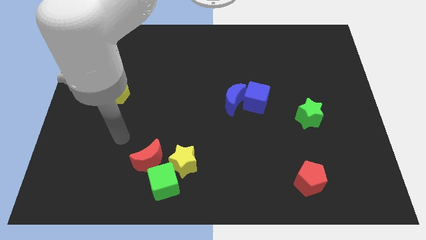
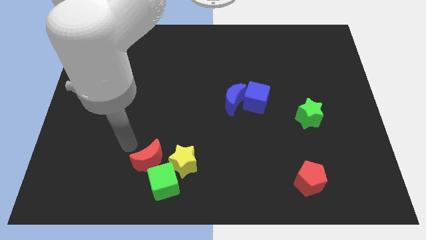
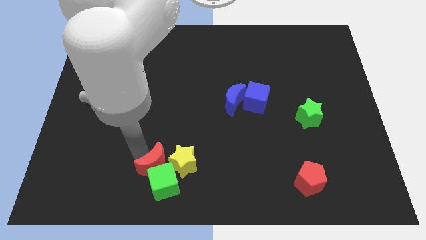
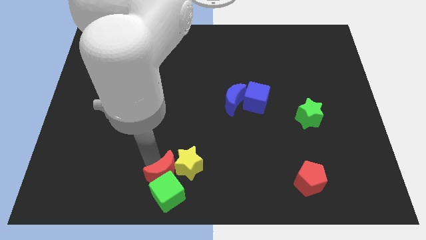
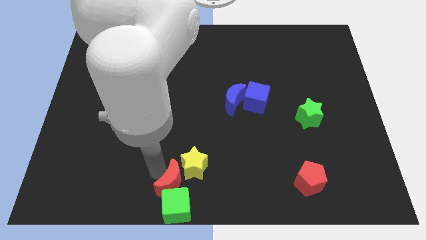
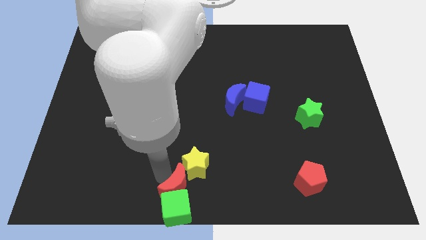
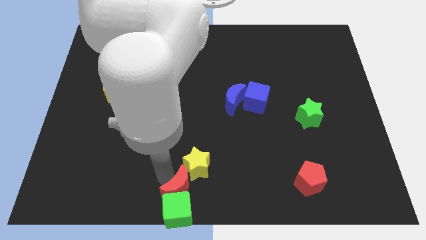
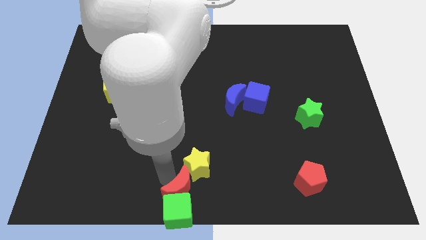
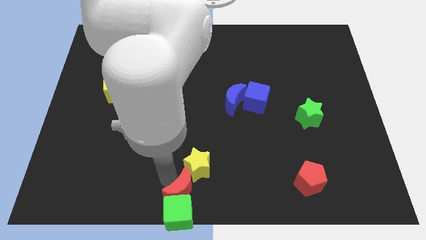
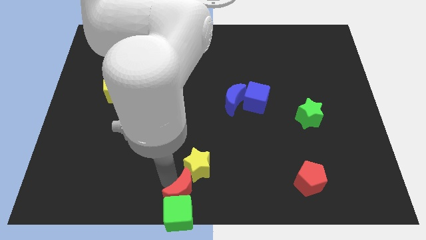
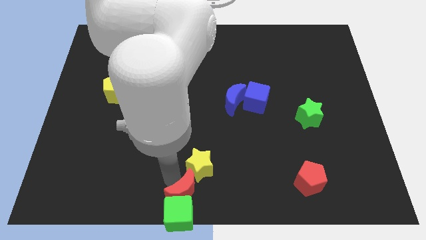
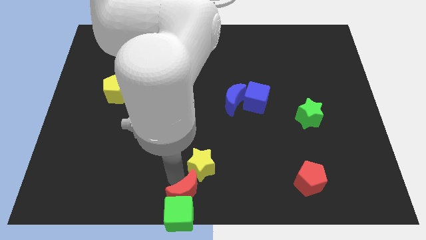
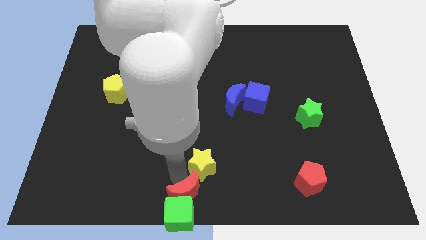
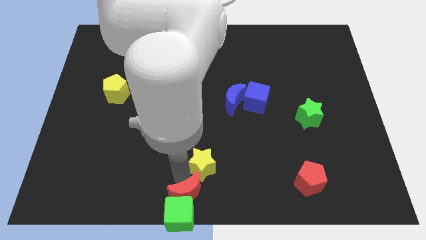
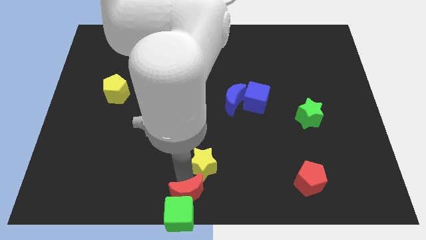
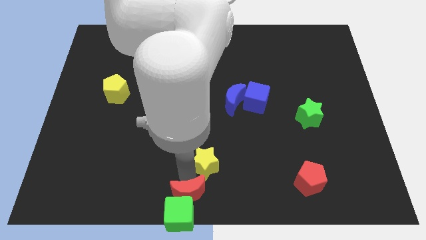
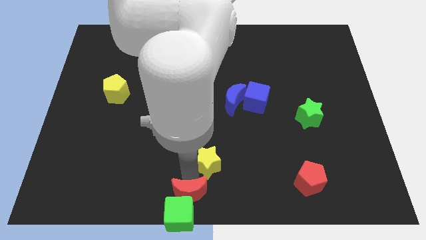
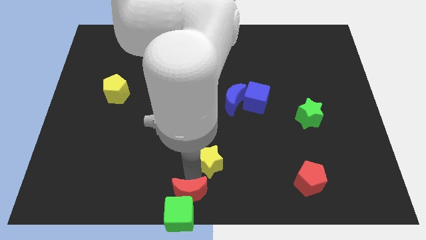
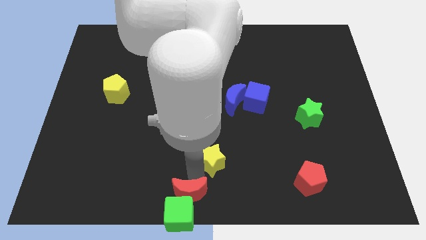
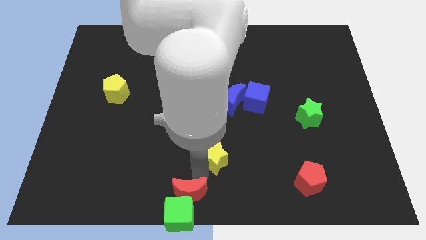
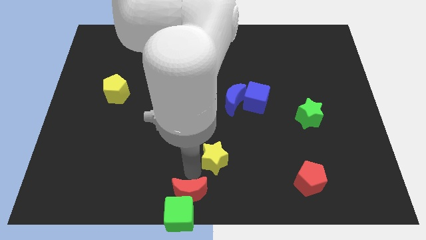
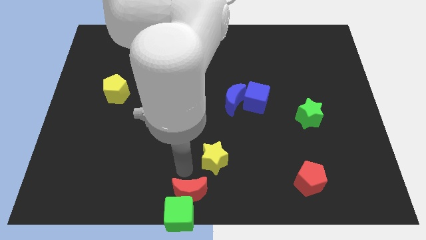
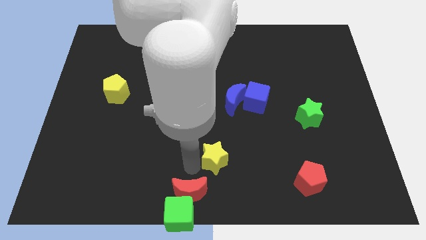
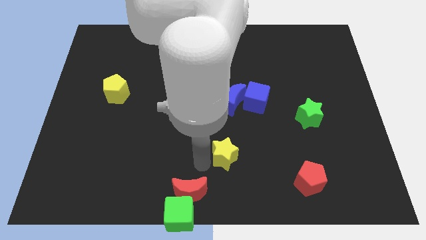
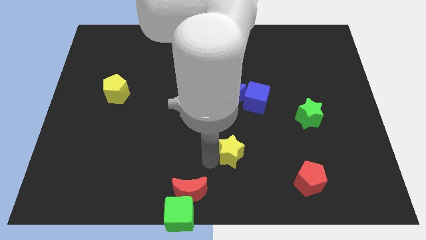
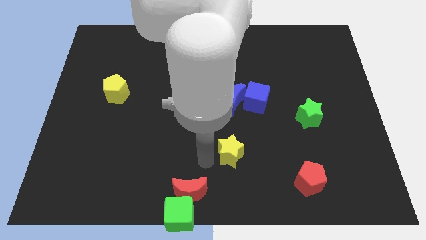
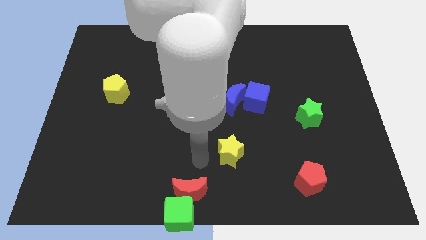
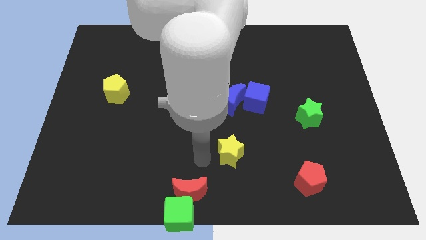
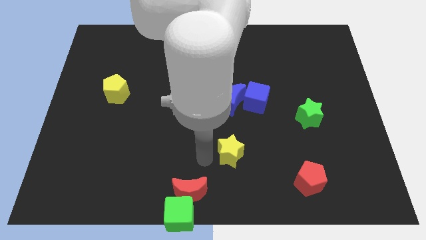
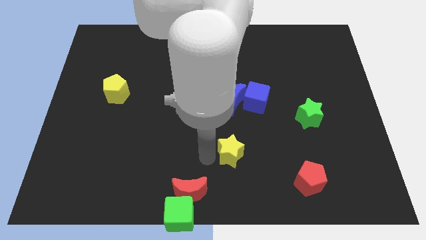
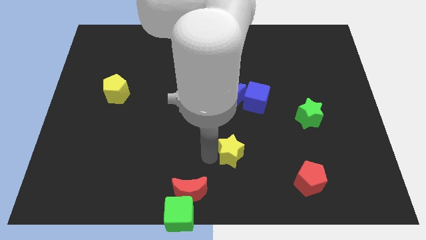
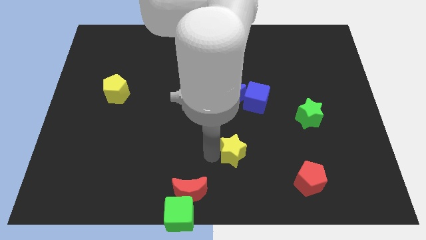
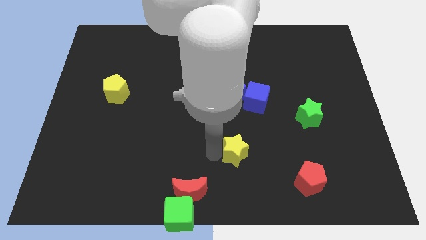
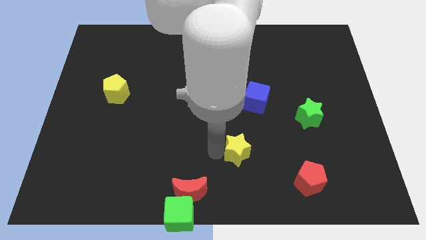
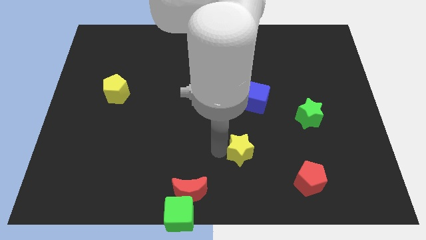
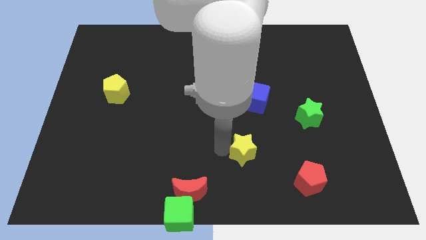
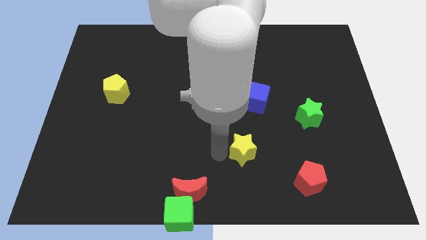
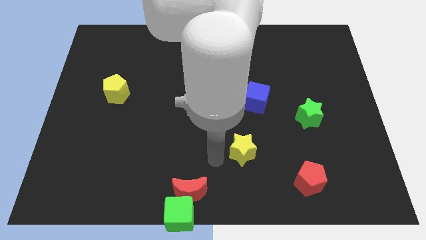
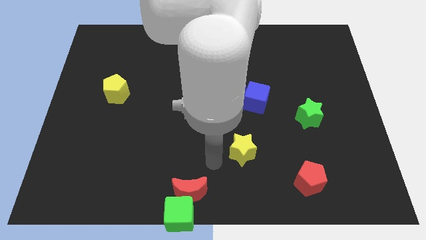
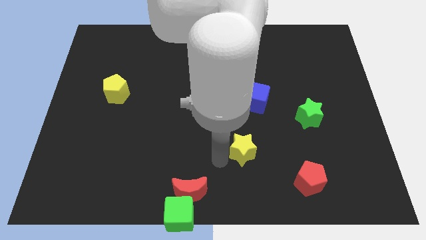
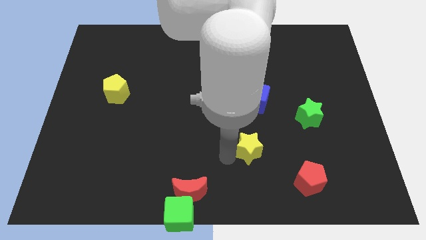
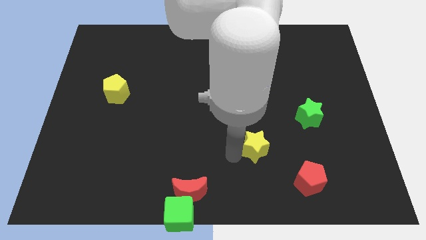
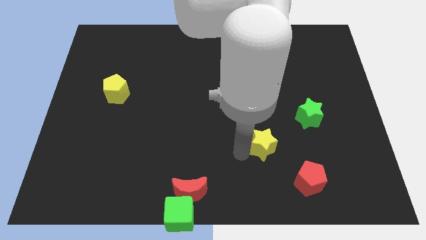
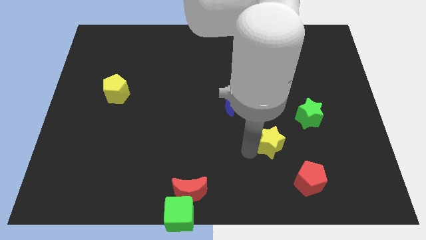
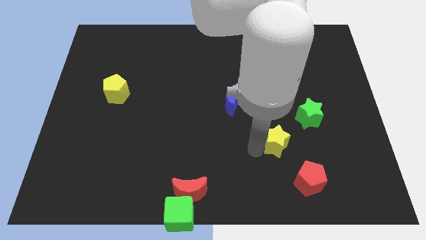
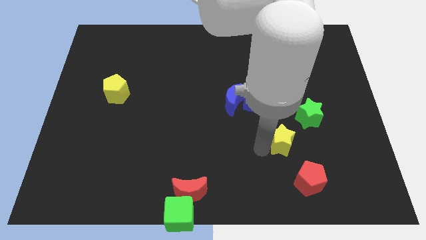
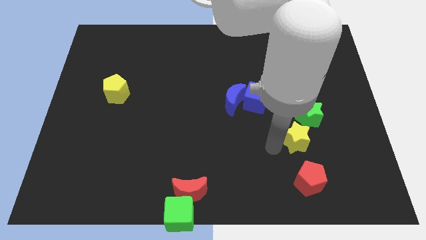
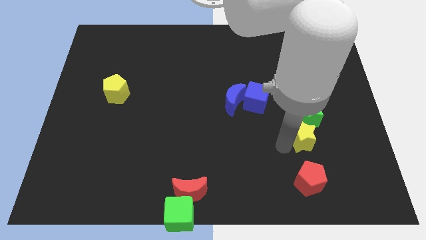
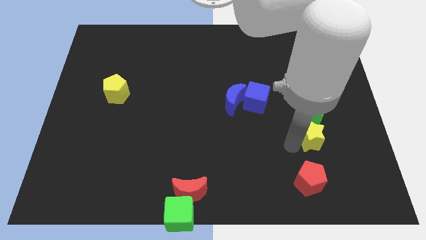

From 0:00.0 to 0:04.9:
push the yellow star towards the green star

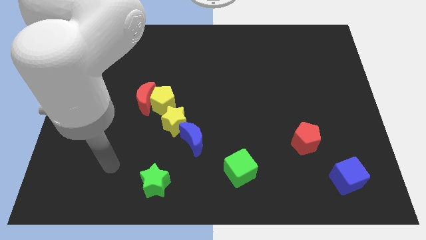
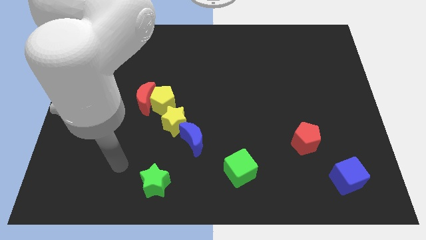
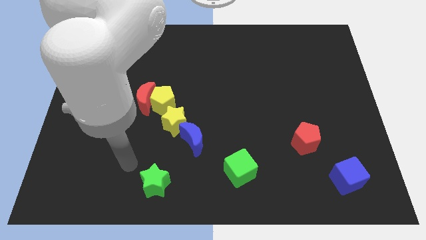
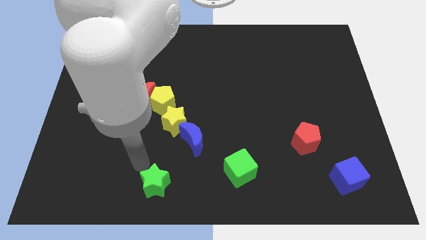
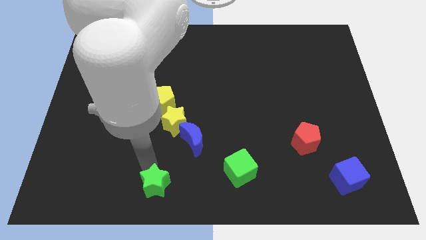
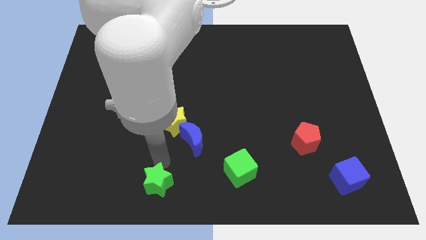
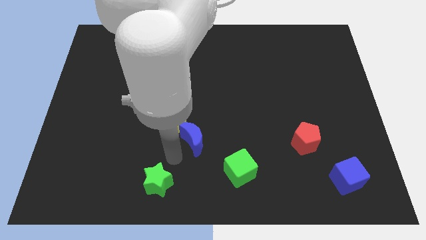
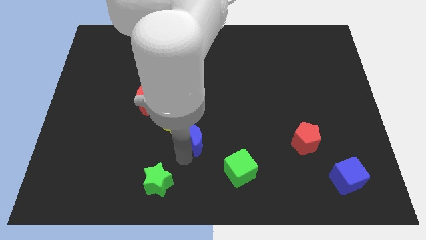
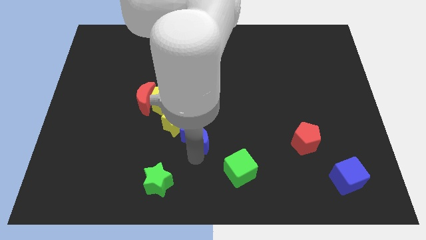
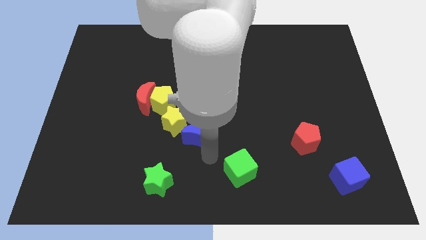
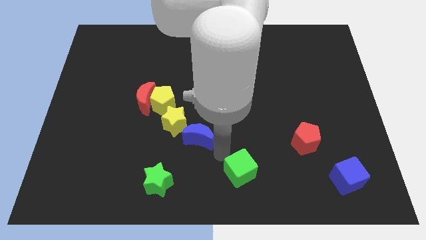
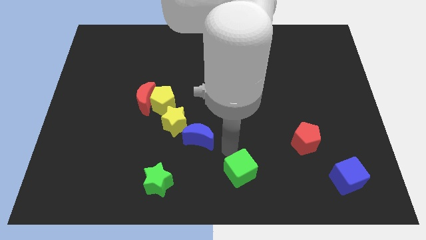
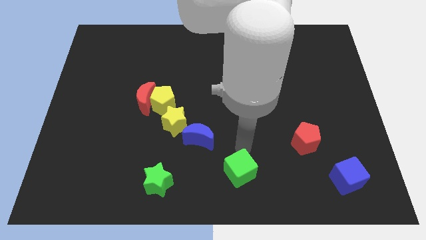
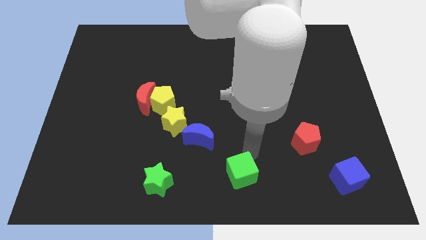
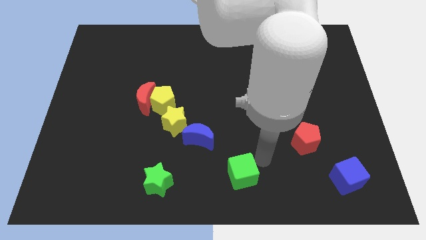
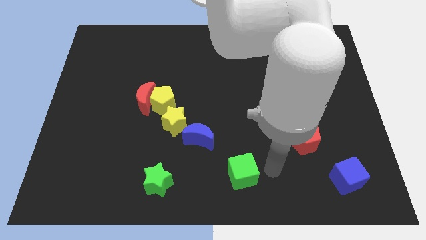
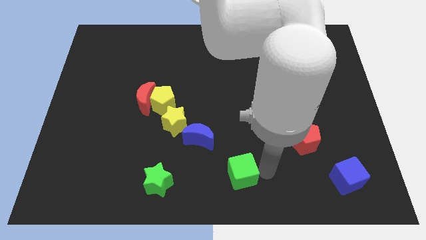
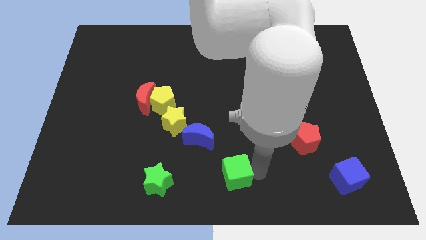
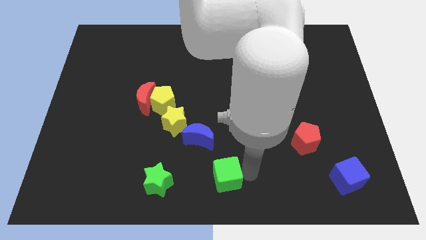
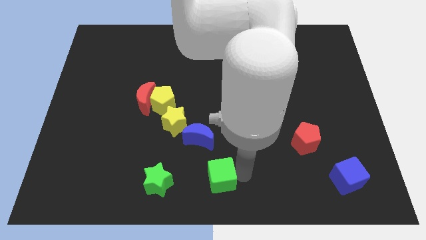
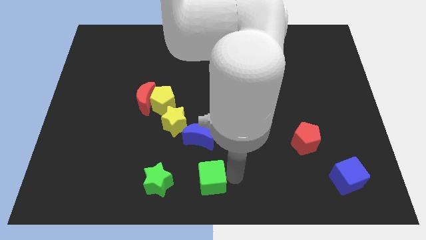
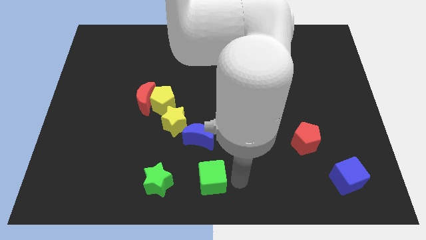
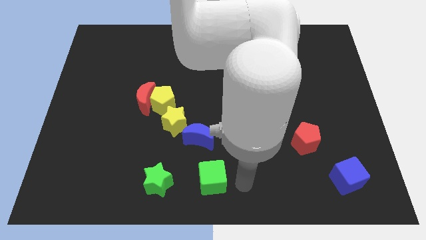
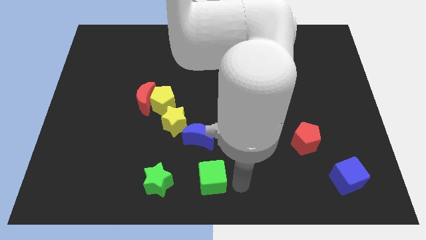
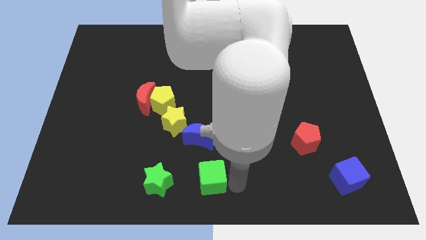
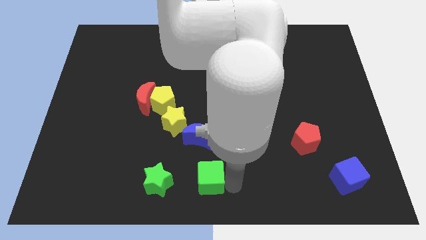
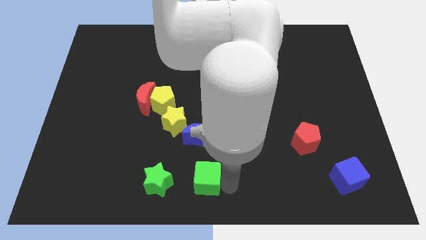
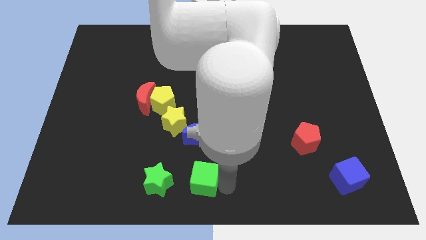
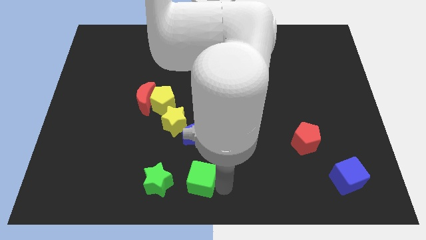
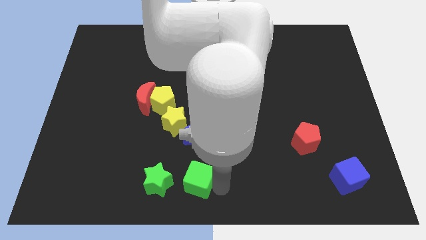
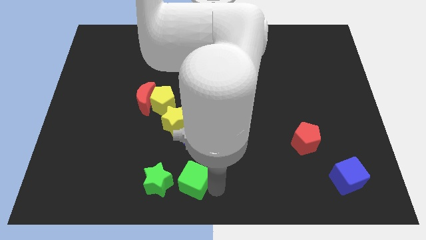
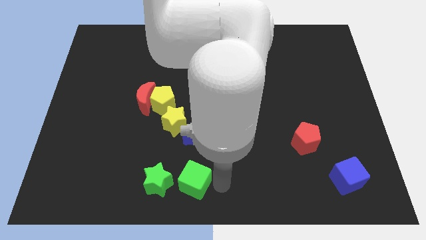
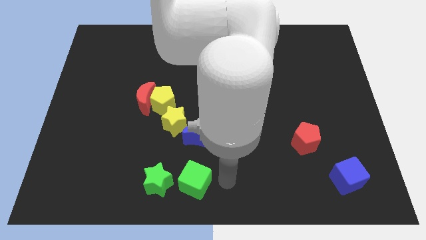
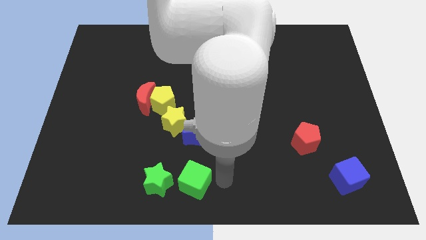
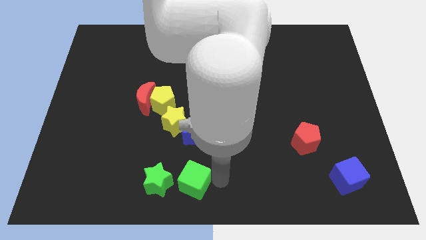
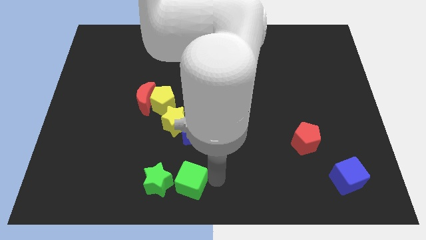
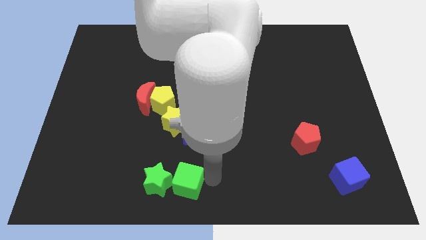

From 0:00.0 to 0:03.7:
push the green cube next to the green star
